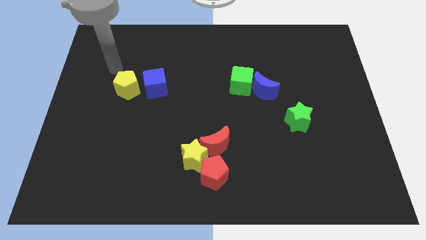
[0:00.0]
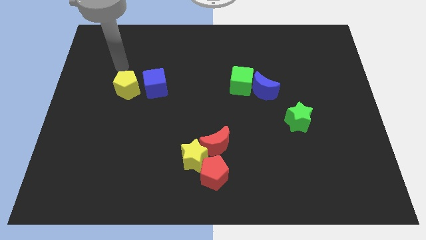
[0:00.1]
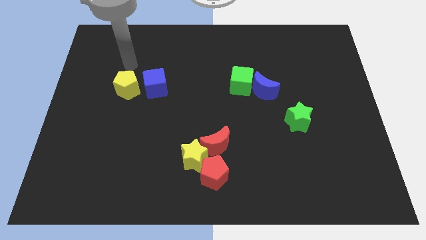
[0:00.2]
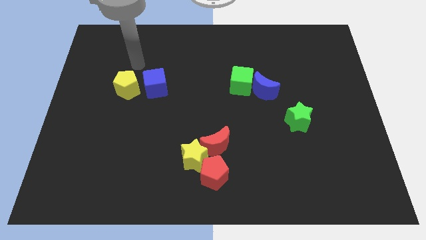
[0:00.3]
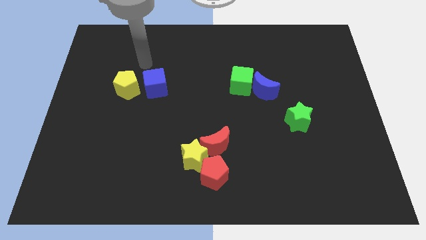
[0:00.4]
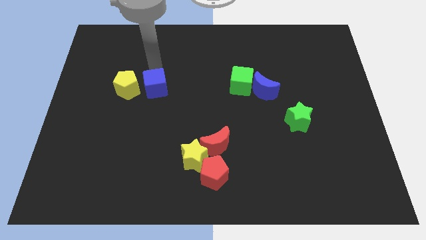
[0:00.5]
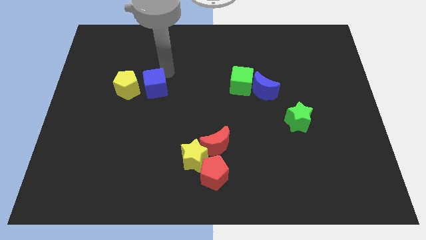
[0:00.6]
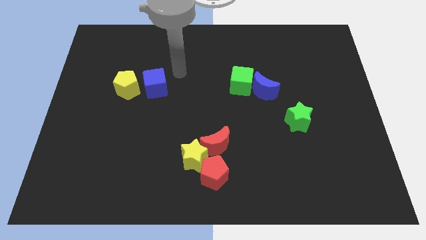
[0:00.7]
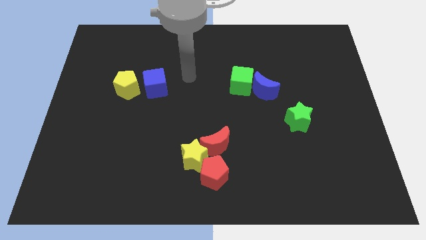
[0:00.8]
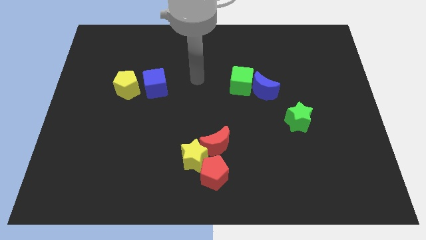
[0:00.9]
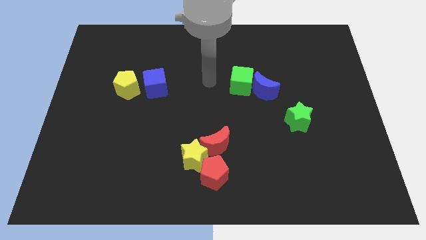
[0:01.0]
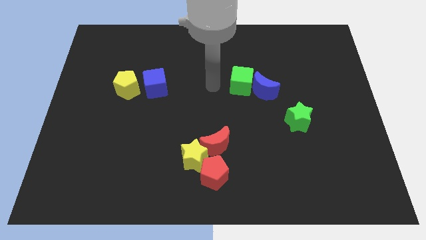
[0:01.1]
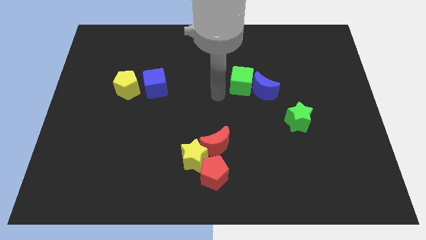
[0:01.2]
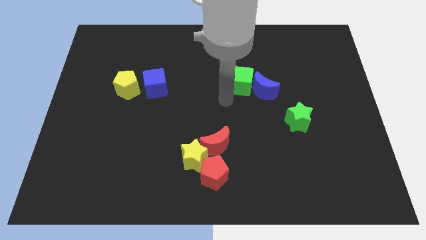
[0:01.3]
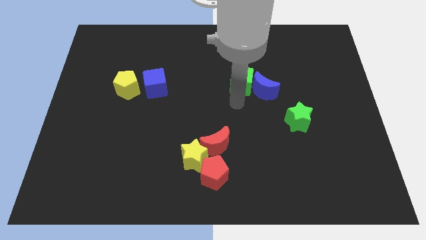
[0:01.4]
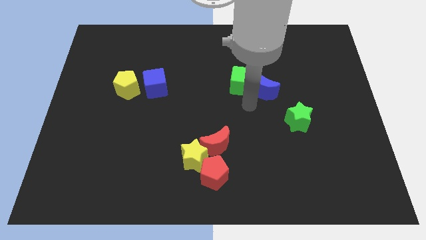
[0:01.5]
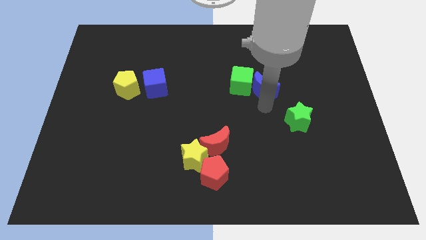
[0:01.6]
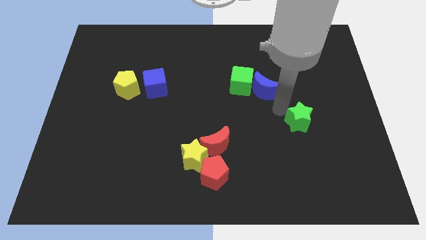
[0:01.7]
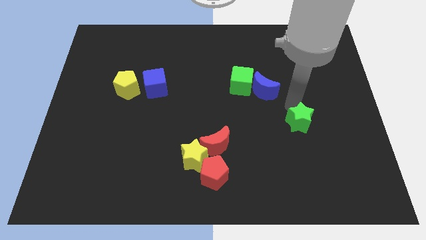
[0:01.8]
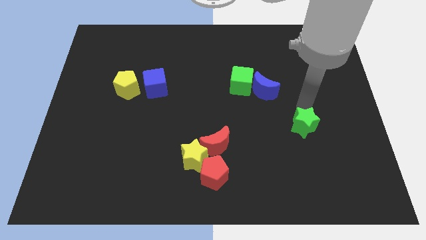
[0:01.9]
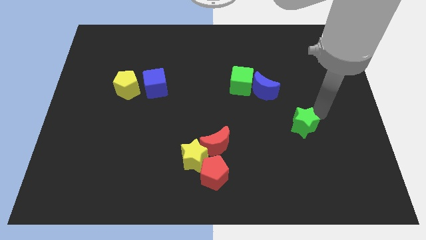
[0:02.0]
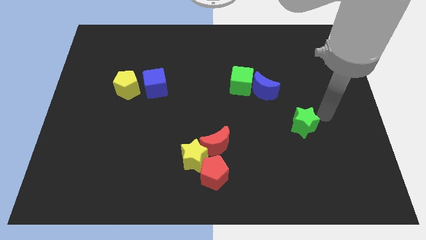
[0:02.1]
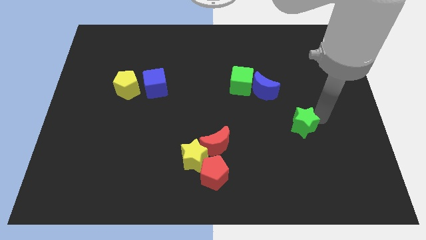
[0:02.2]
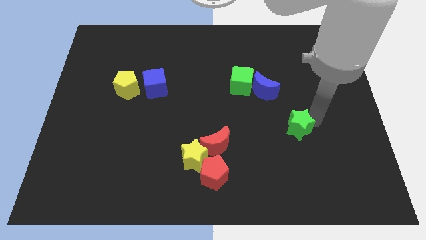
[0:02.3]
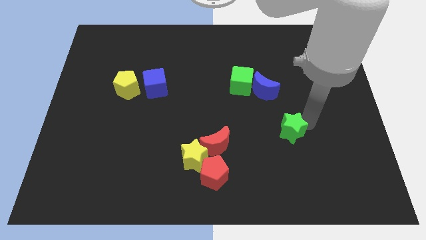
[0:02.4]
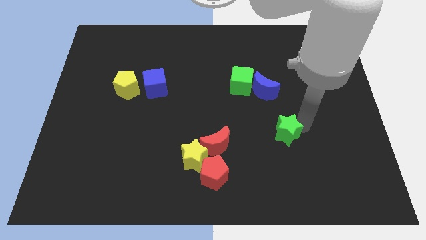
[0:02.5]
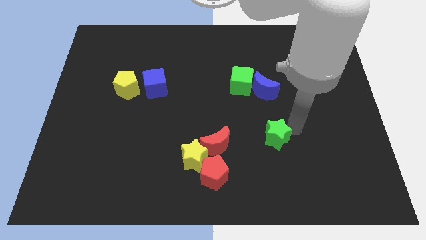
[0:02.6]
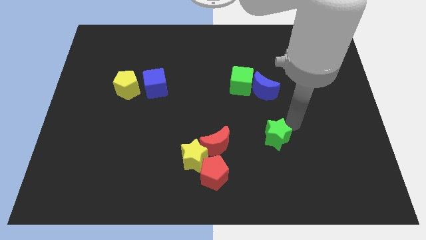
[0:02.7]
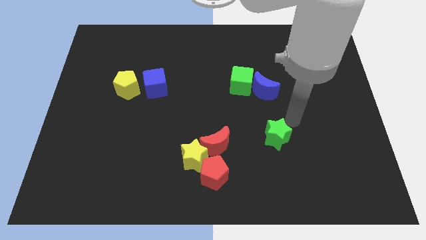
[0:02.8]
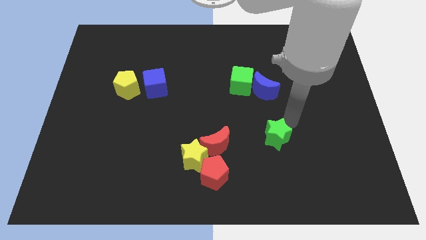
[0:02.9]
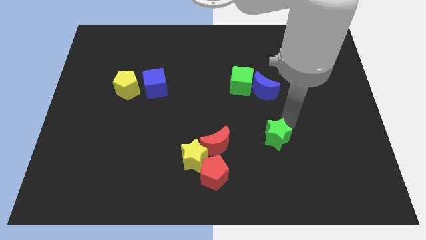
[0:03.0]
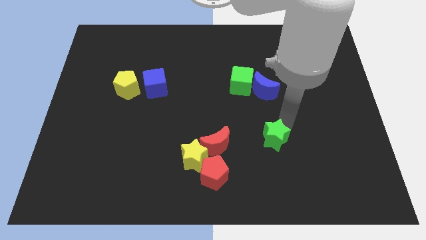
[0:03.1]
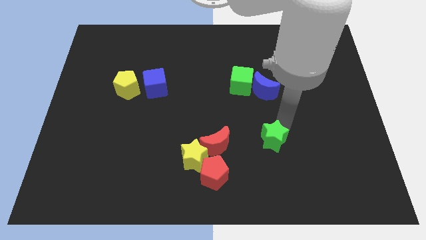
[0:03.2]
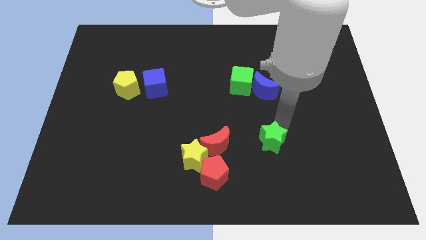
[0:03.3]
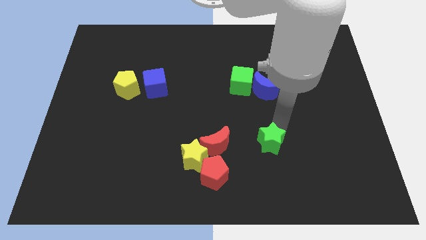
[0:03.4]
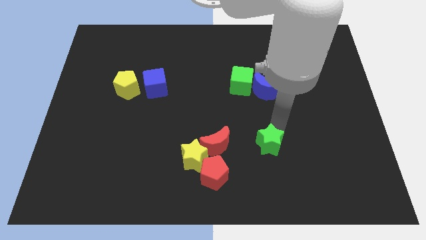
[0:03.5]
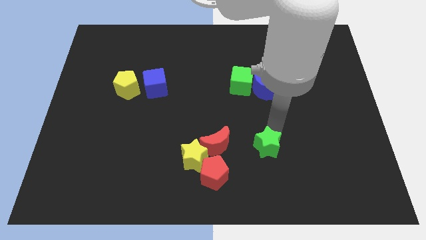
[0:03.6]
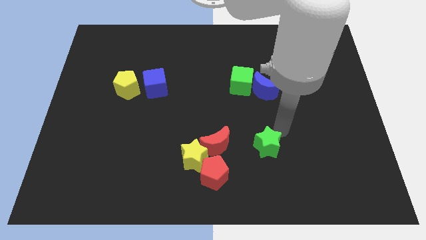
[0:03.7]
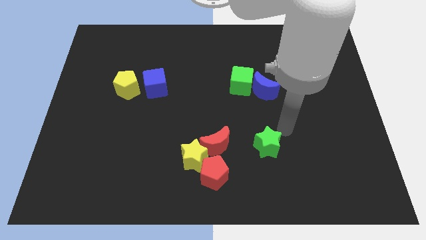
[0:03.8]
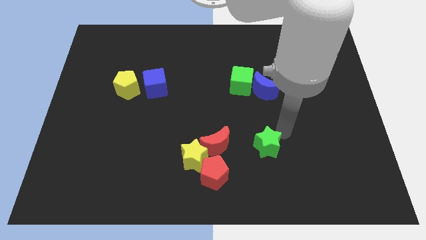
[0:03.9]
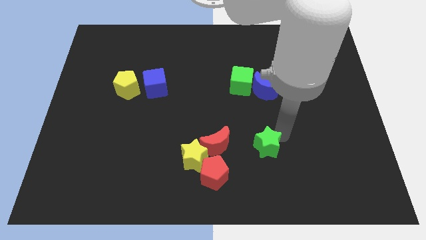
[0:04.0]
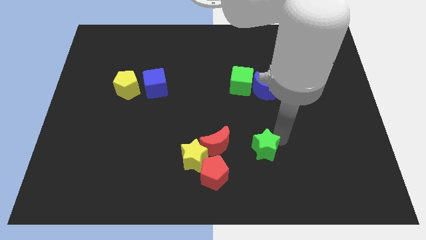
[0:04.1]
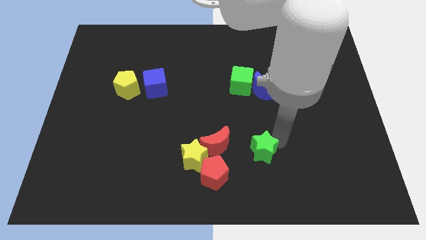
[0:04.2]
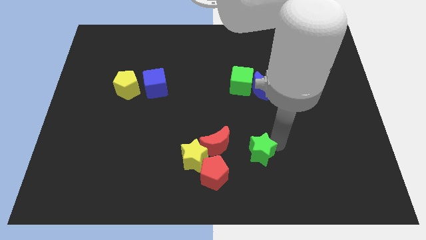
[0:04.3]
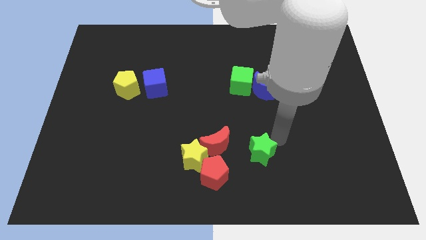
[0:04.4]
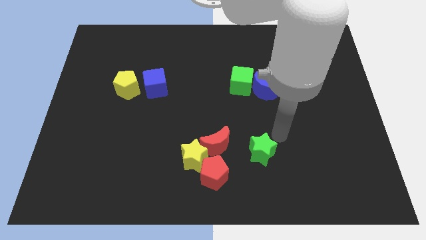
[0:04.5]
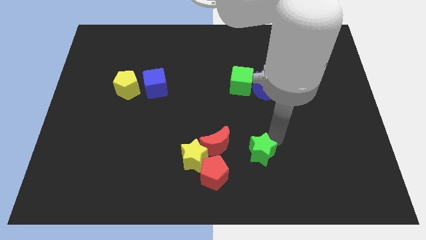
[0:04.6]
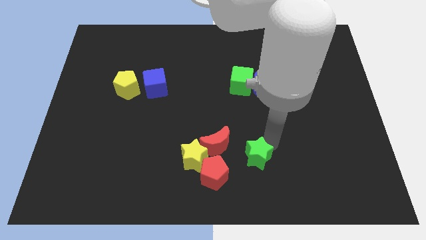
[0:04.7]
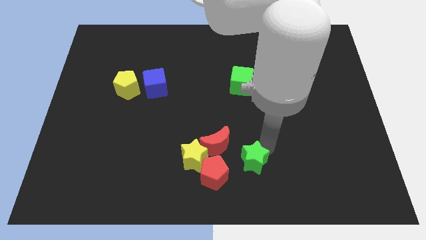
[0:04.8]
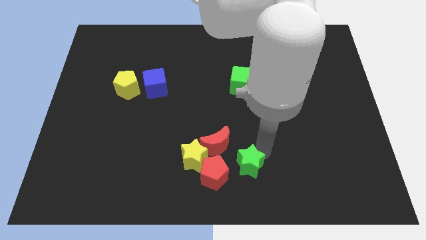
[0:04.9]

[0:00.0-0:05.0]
push the green star to the bottom

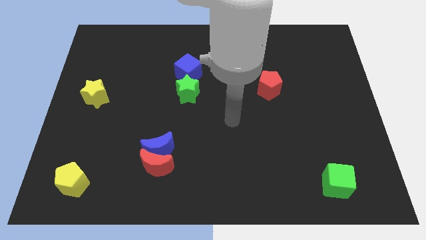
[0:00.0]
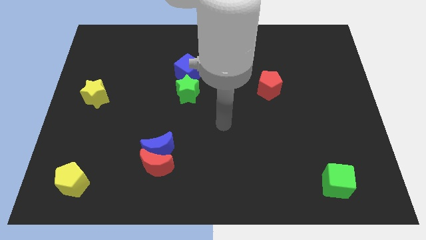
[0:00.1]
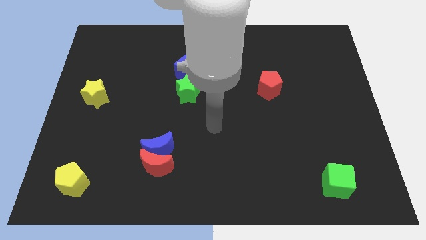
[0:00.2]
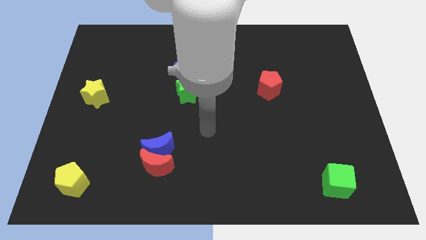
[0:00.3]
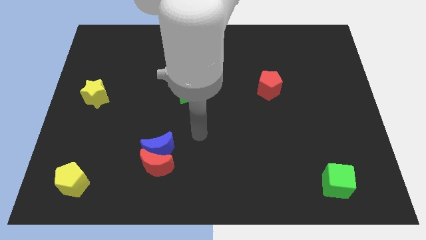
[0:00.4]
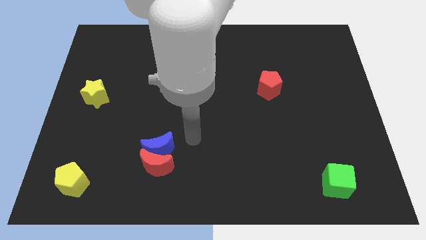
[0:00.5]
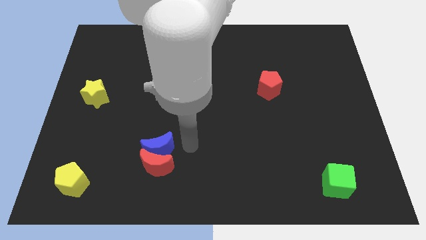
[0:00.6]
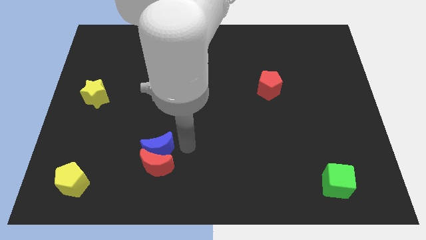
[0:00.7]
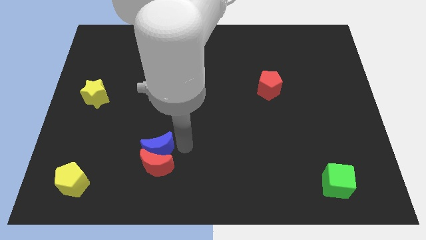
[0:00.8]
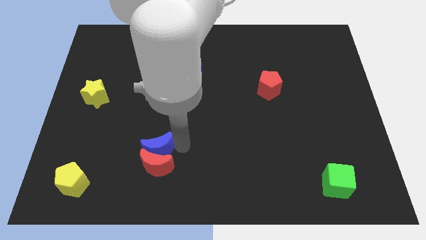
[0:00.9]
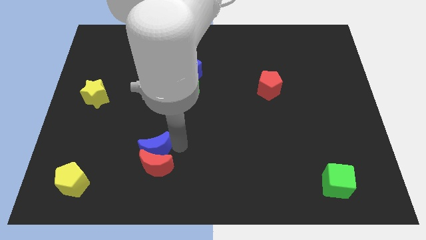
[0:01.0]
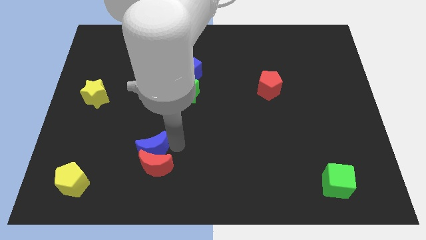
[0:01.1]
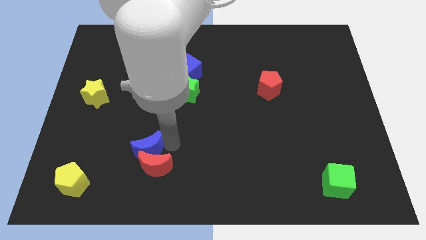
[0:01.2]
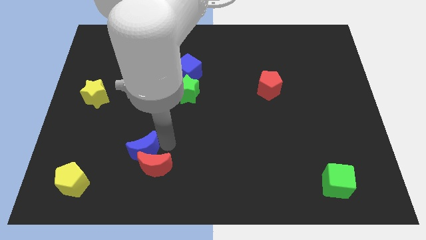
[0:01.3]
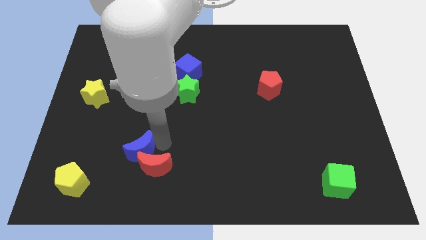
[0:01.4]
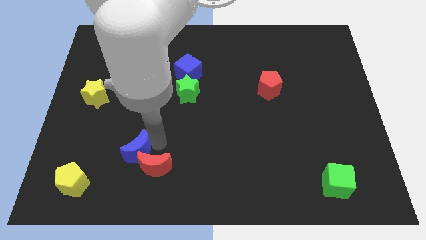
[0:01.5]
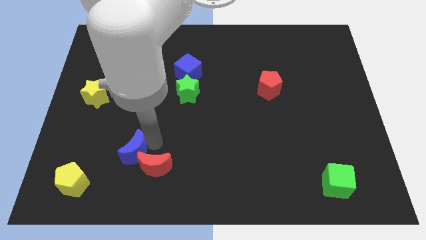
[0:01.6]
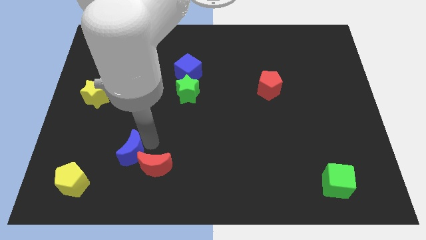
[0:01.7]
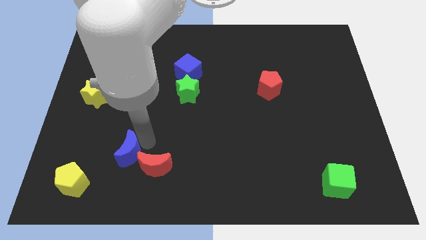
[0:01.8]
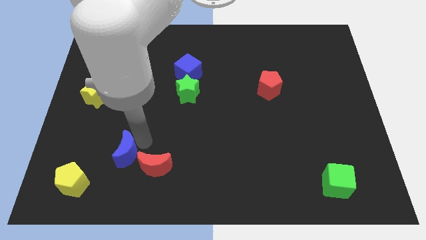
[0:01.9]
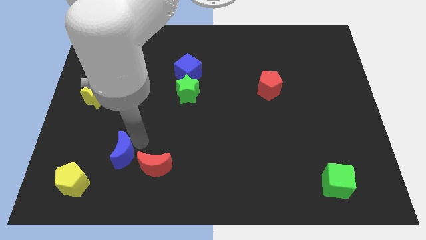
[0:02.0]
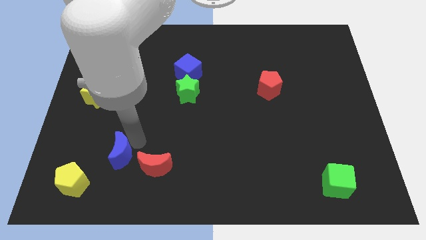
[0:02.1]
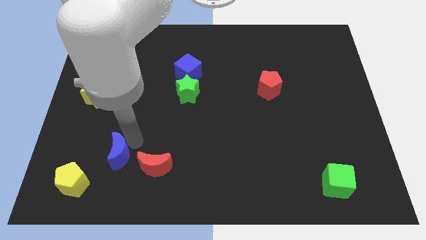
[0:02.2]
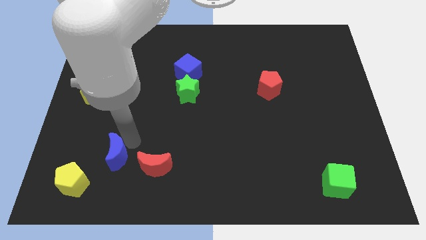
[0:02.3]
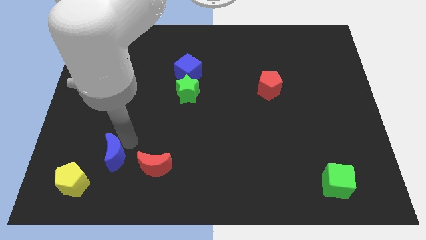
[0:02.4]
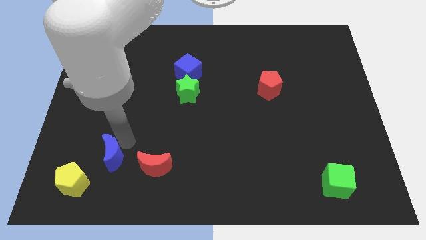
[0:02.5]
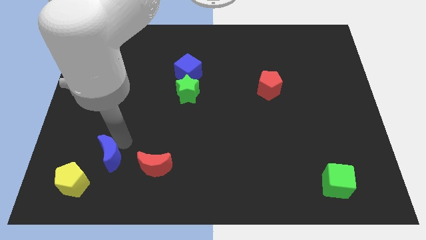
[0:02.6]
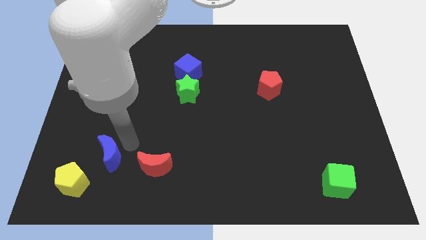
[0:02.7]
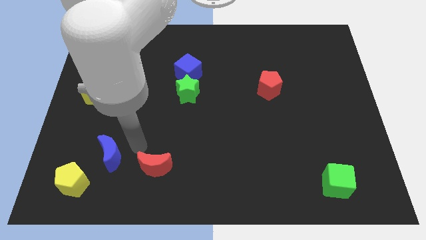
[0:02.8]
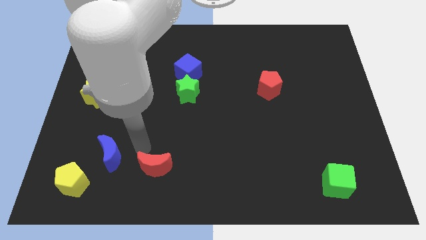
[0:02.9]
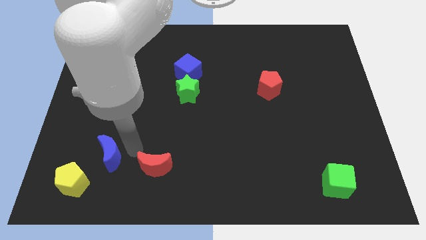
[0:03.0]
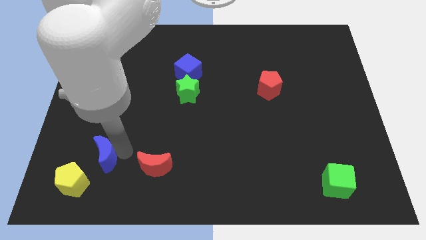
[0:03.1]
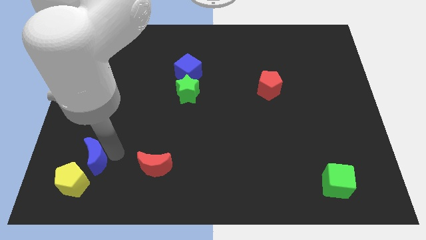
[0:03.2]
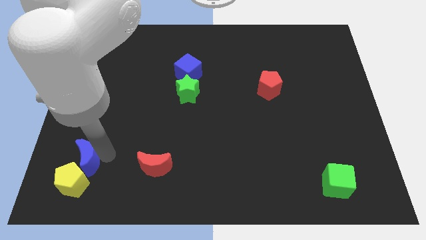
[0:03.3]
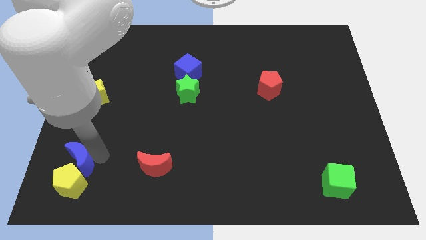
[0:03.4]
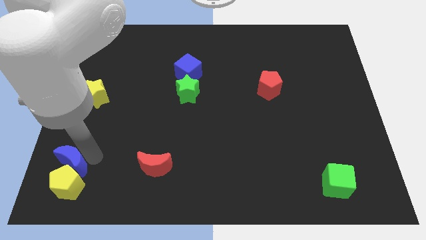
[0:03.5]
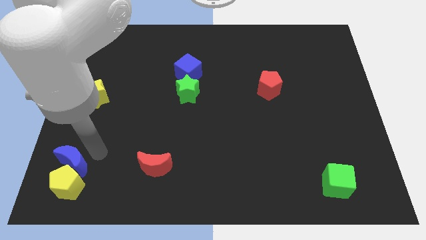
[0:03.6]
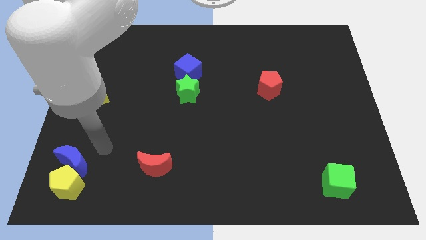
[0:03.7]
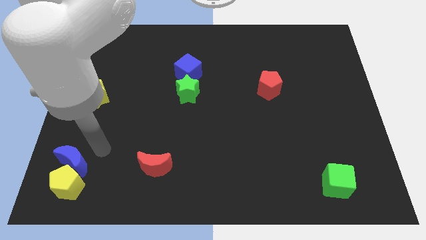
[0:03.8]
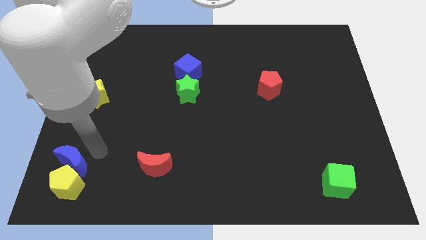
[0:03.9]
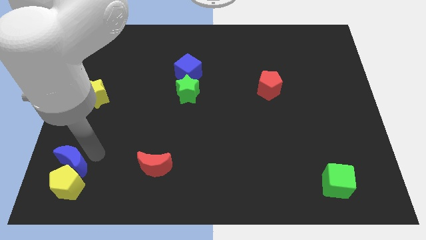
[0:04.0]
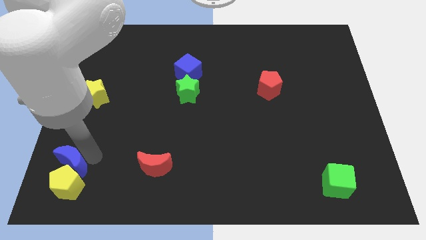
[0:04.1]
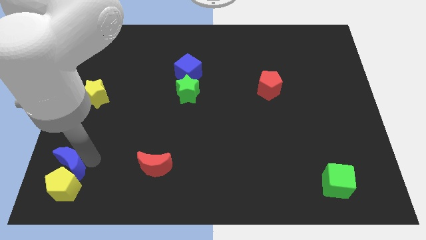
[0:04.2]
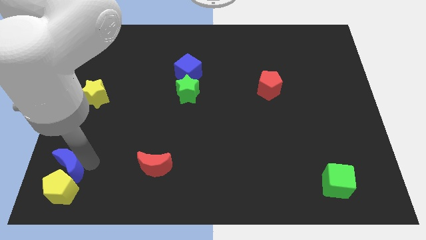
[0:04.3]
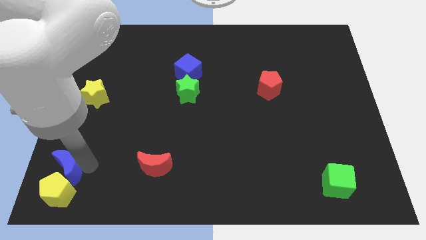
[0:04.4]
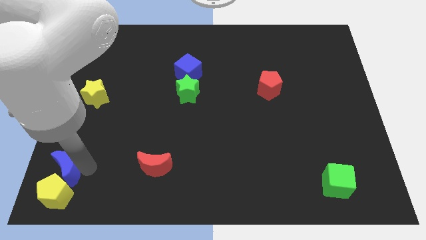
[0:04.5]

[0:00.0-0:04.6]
push the blue moon to the bottom left of the board
